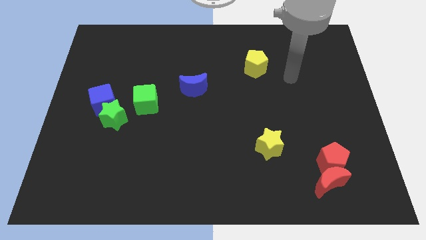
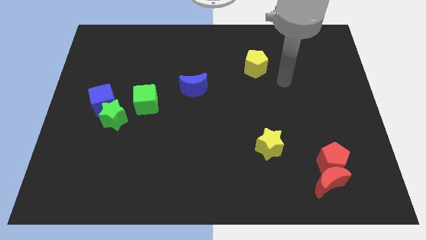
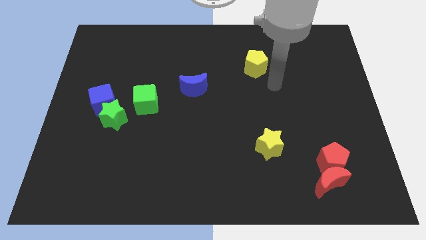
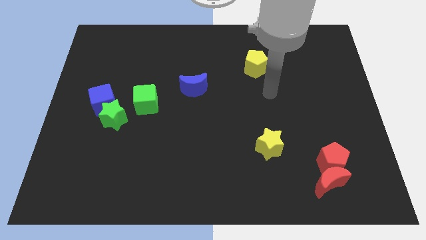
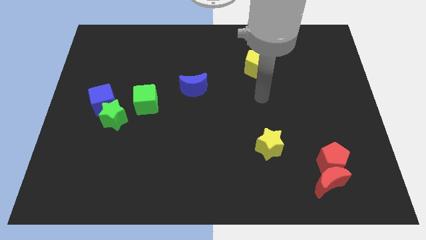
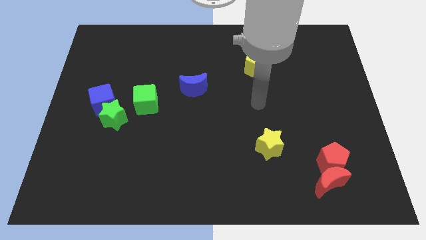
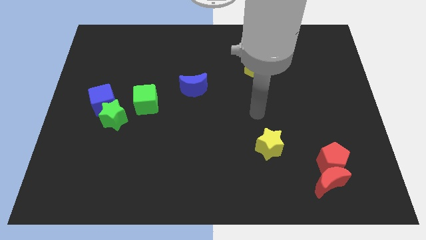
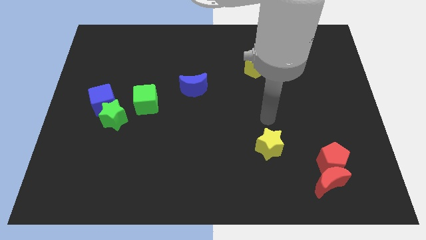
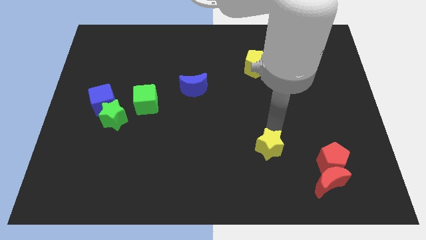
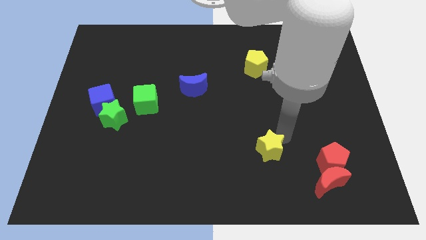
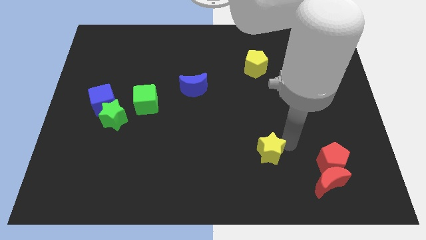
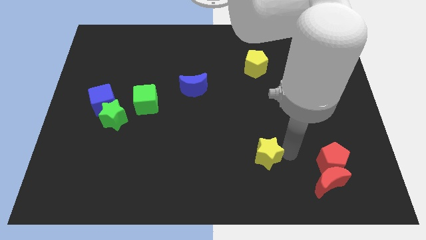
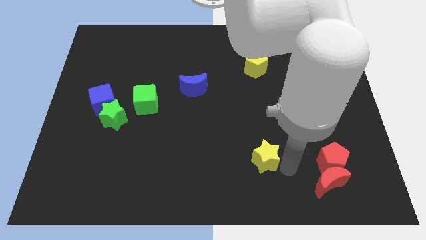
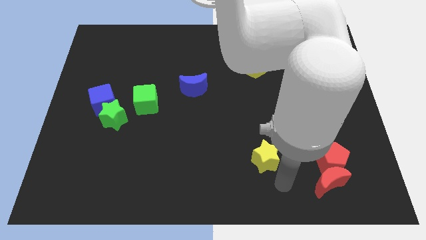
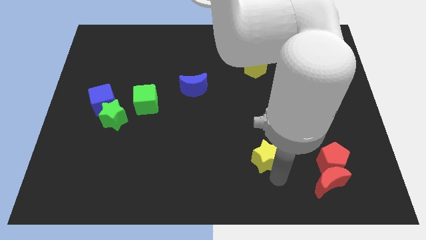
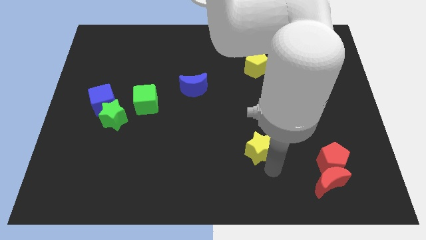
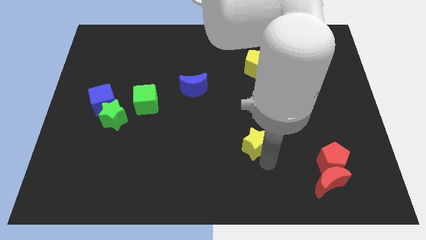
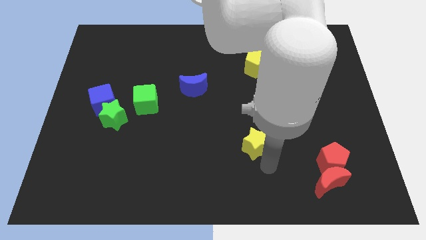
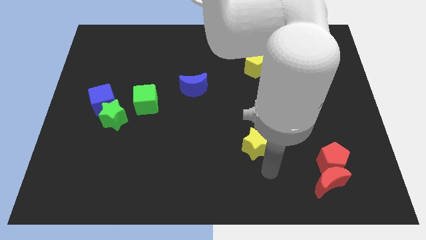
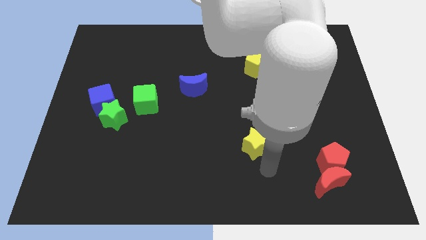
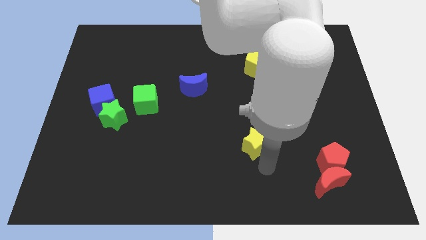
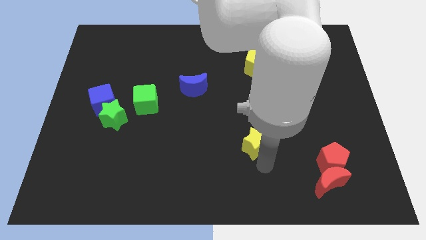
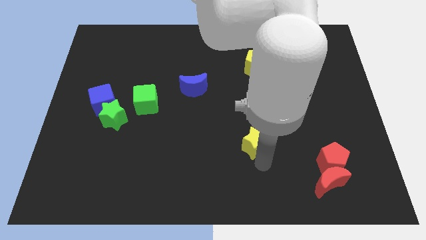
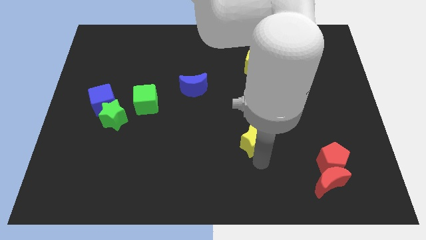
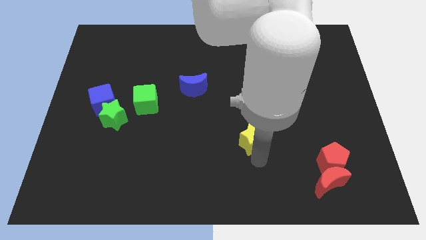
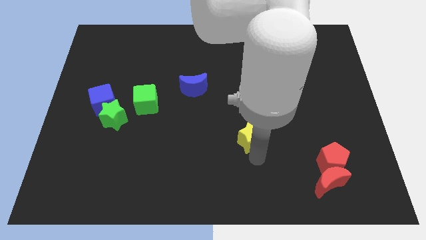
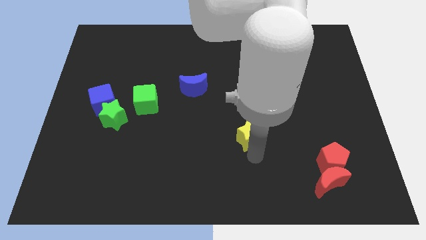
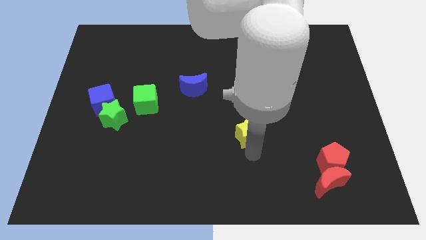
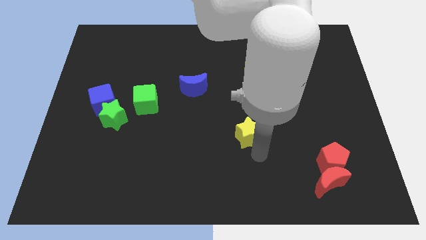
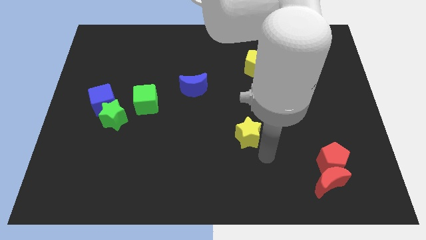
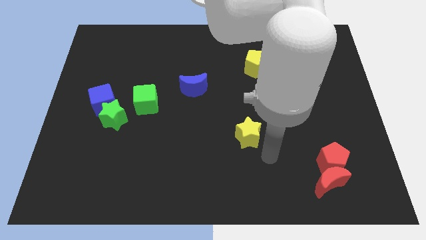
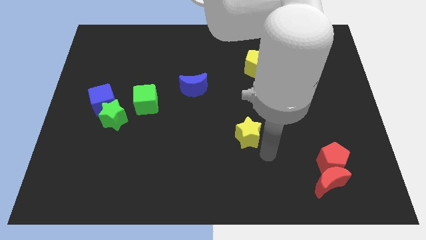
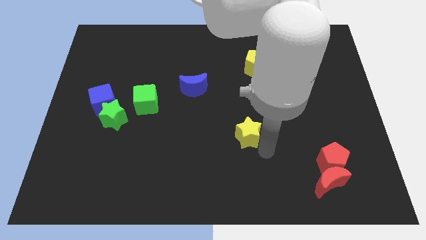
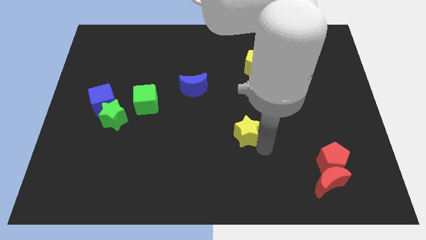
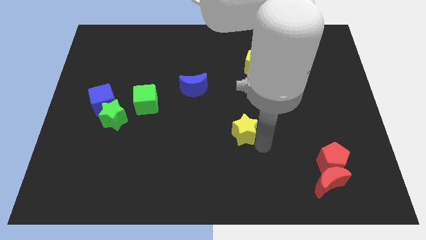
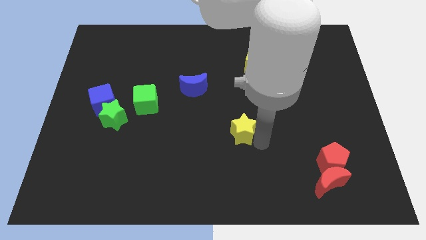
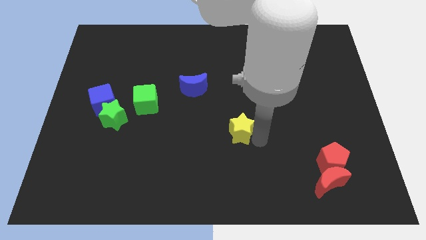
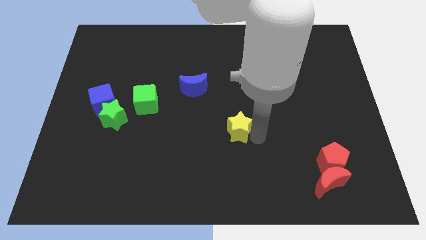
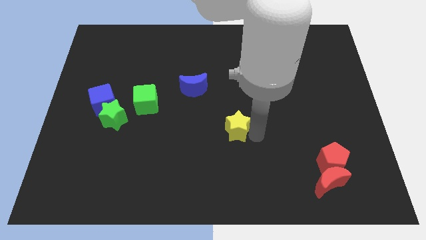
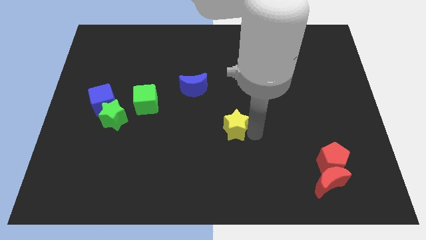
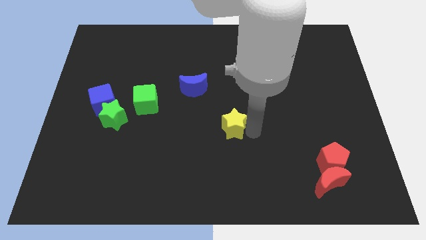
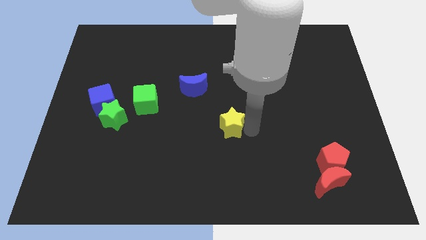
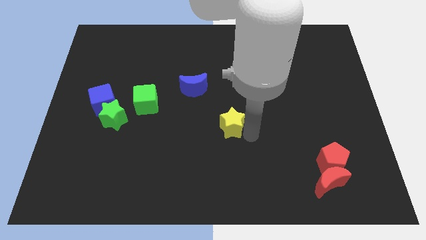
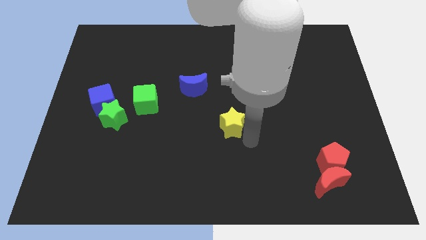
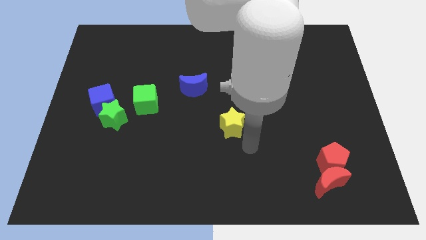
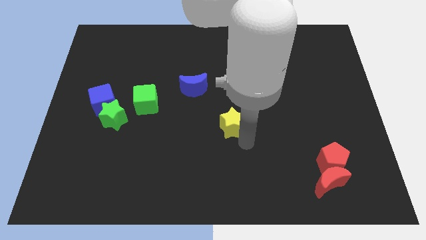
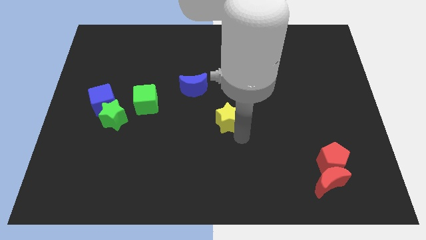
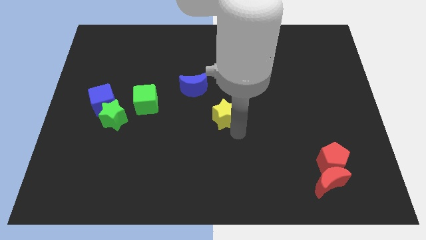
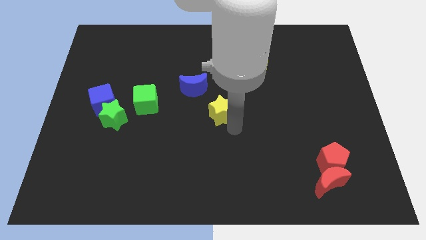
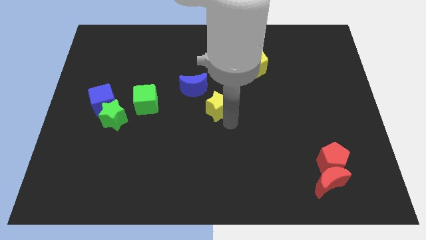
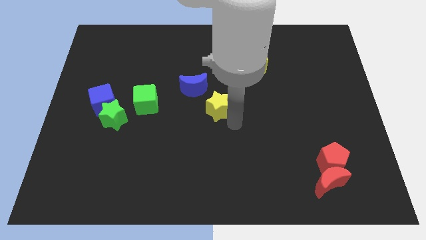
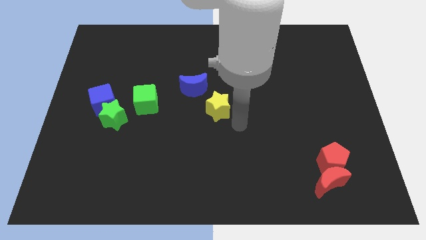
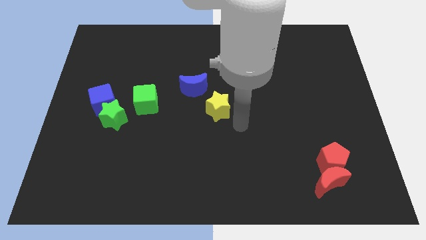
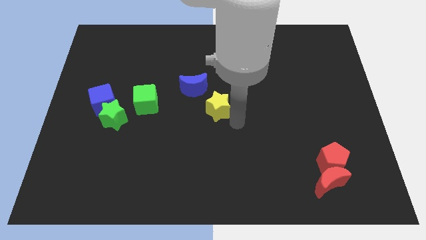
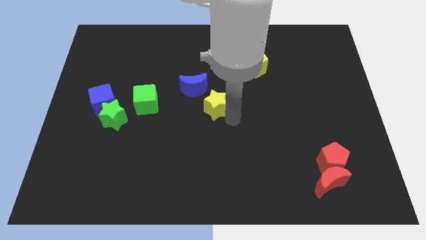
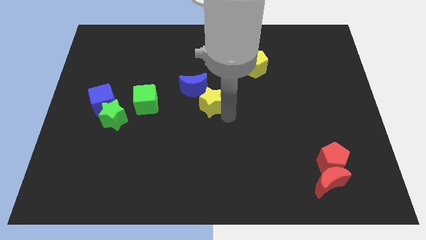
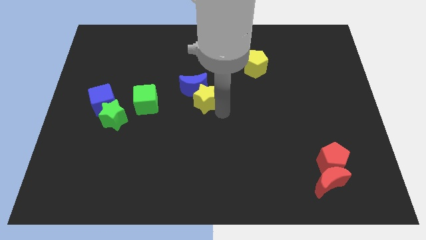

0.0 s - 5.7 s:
slide the yellow star close to the blue moon
